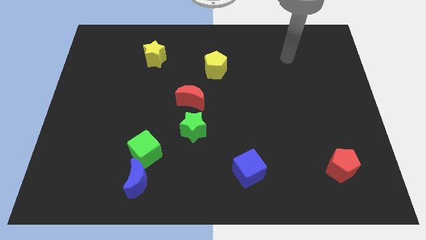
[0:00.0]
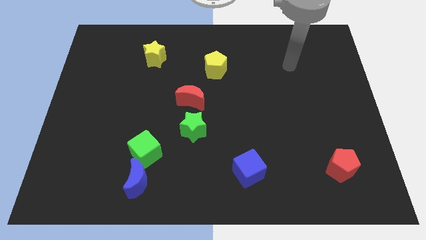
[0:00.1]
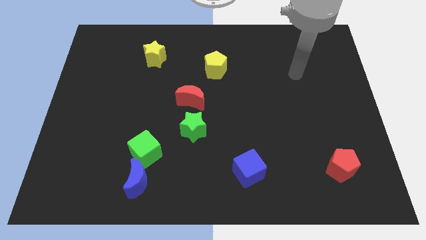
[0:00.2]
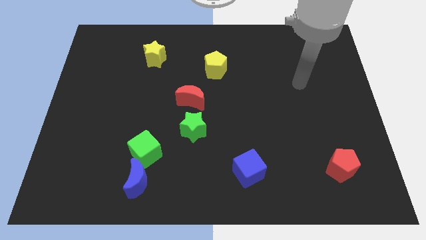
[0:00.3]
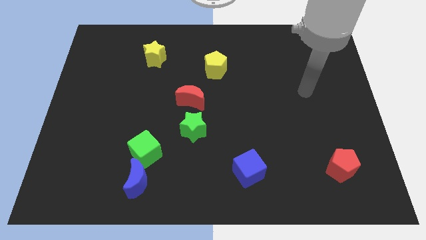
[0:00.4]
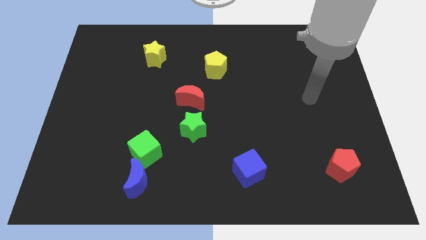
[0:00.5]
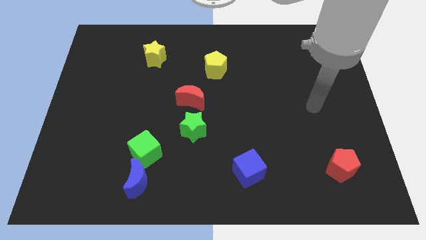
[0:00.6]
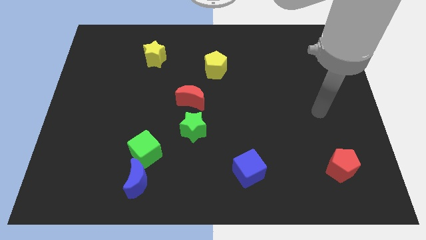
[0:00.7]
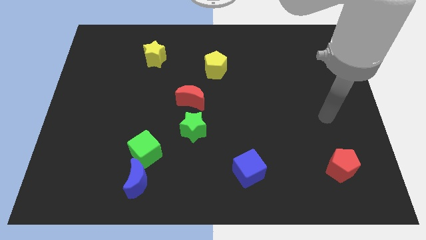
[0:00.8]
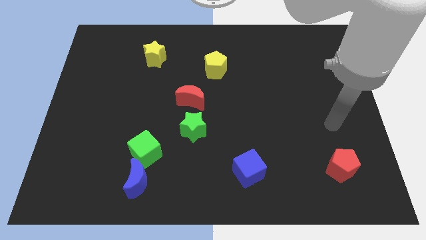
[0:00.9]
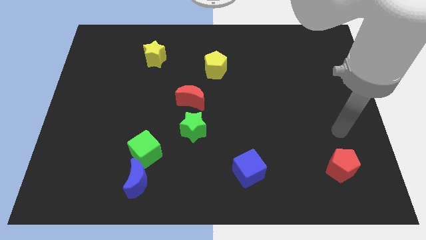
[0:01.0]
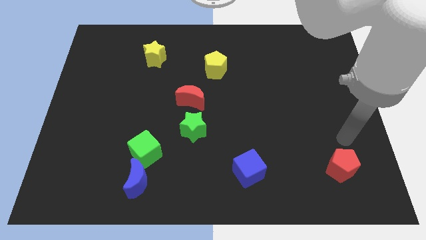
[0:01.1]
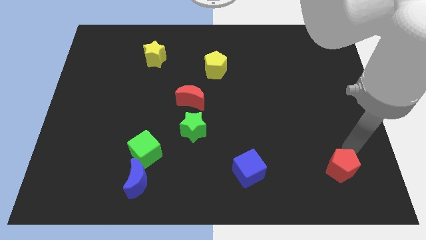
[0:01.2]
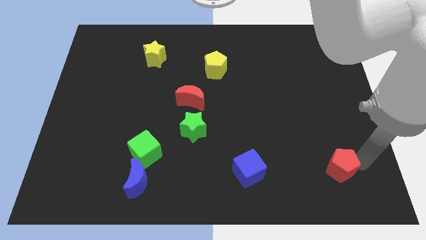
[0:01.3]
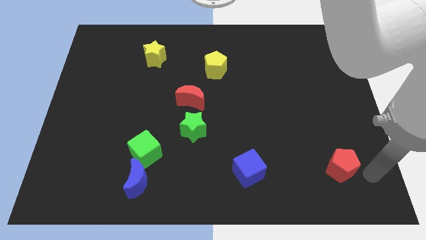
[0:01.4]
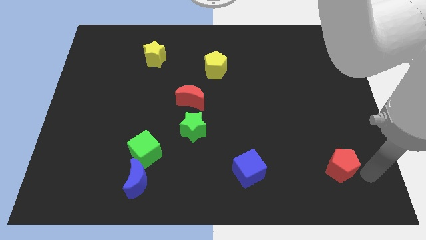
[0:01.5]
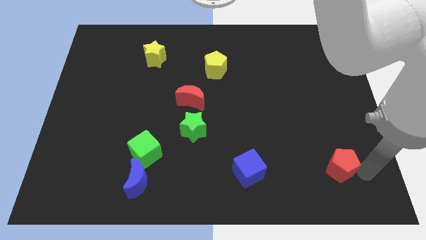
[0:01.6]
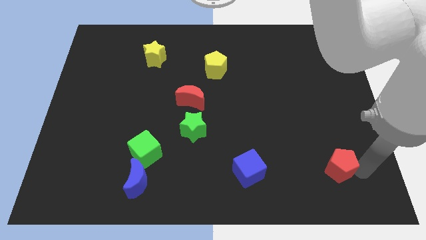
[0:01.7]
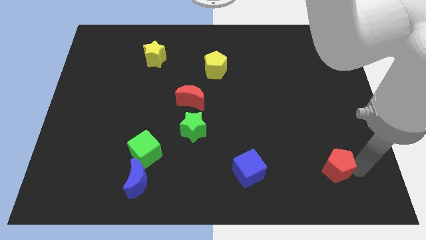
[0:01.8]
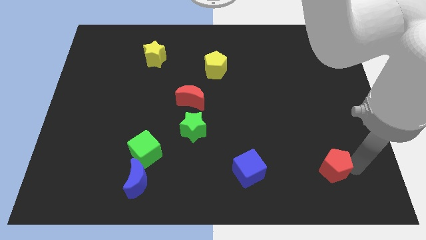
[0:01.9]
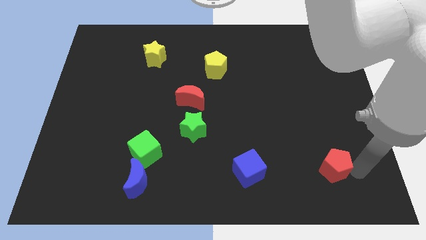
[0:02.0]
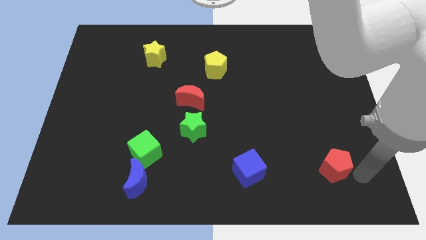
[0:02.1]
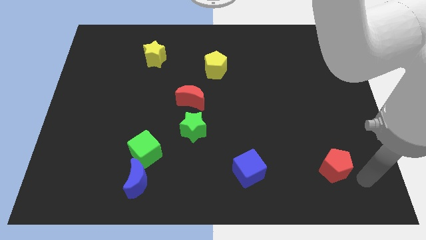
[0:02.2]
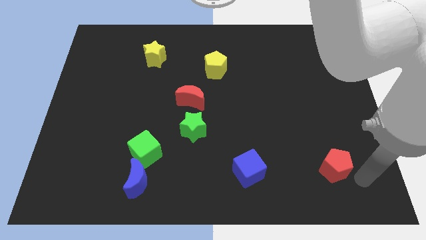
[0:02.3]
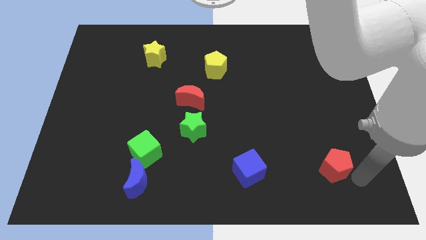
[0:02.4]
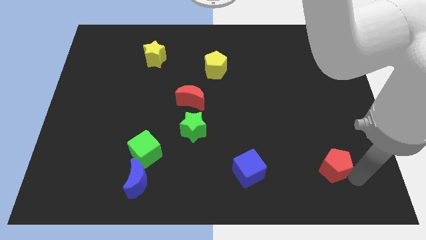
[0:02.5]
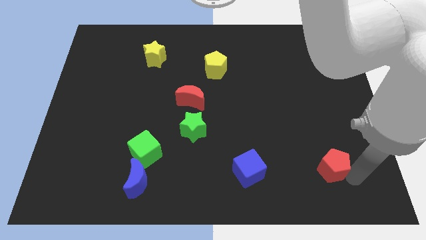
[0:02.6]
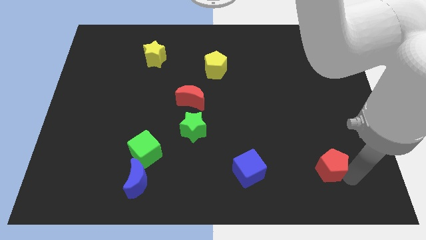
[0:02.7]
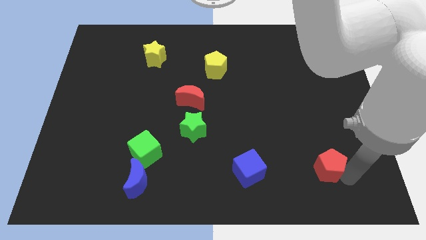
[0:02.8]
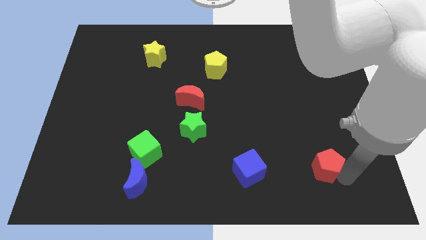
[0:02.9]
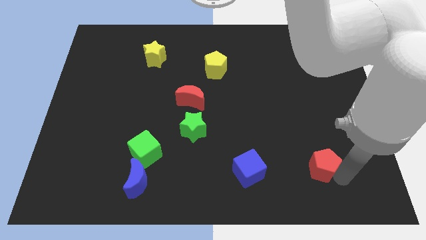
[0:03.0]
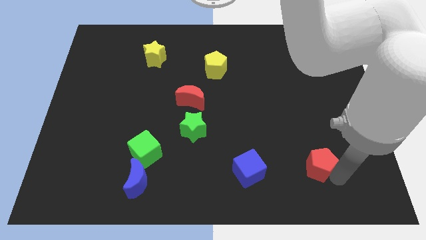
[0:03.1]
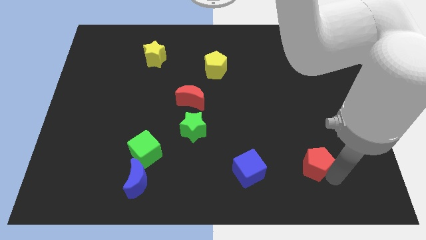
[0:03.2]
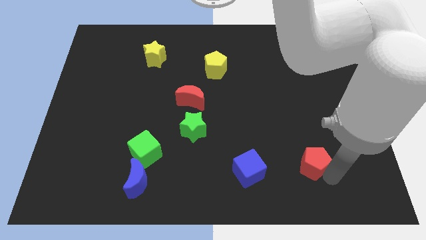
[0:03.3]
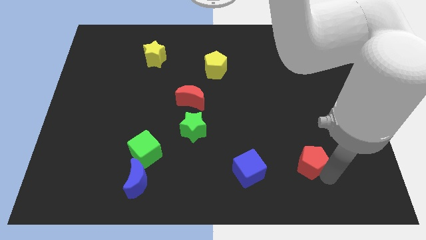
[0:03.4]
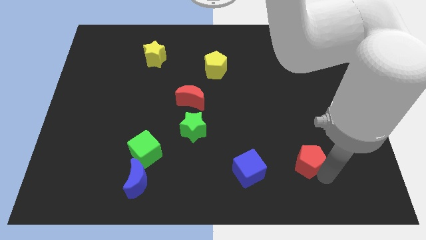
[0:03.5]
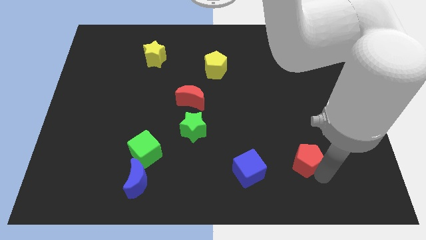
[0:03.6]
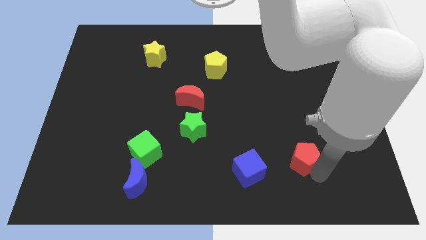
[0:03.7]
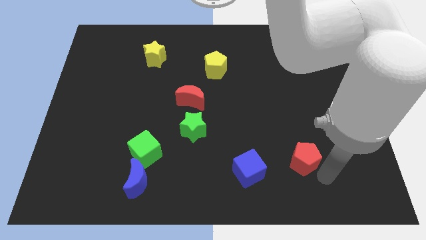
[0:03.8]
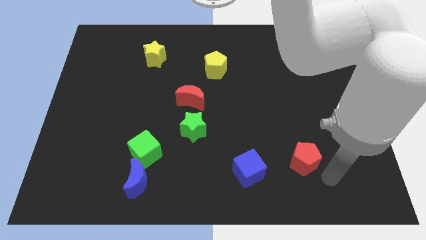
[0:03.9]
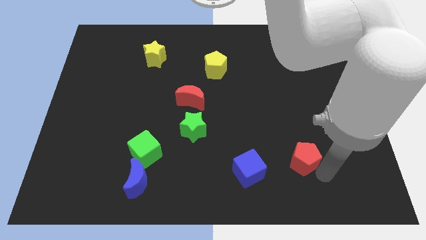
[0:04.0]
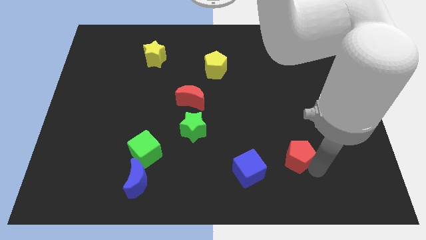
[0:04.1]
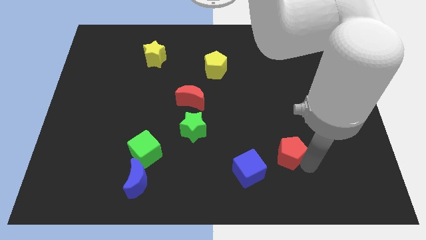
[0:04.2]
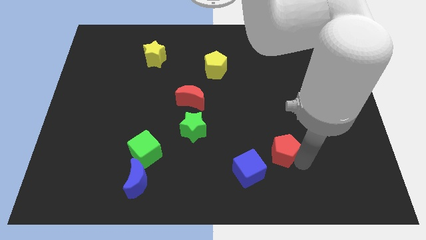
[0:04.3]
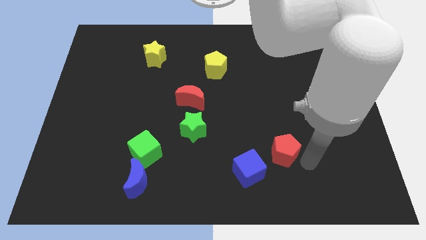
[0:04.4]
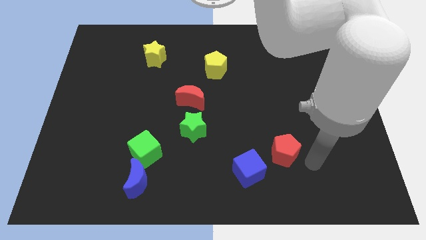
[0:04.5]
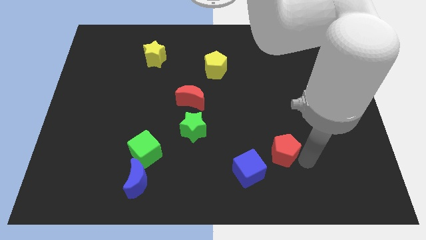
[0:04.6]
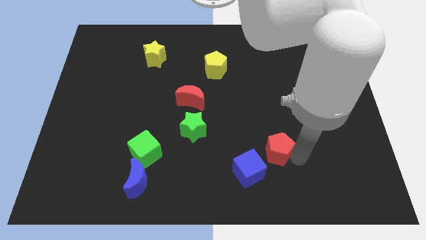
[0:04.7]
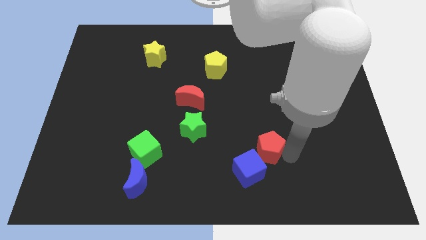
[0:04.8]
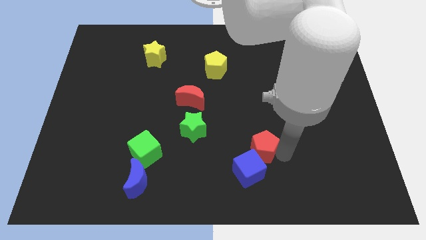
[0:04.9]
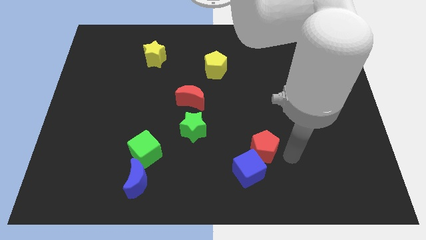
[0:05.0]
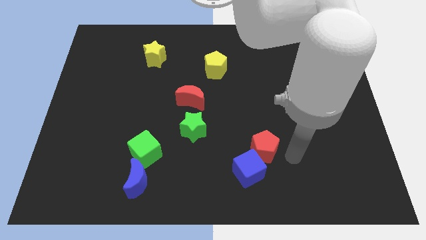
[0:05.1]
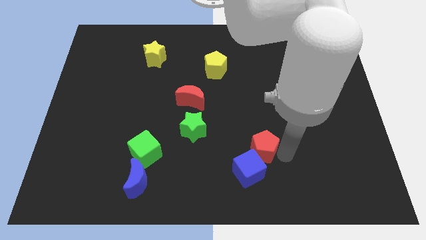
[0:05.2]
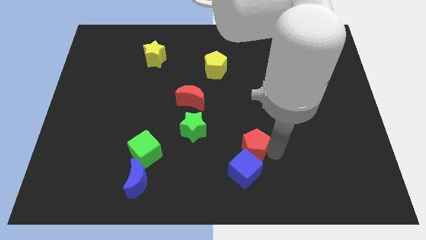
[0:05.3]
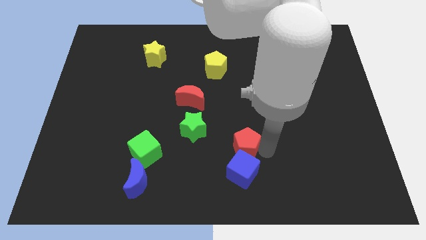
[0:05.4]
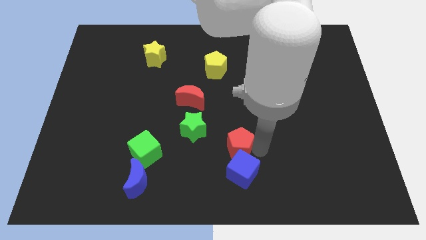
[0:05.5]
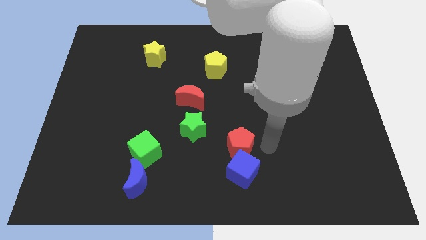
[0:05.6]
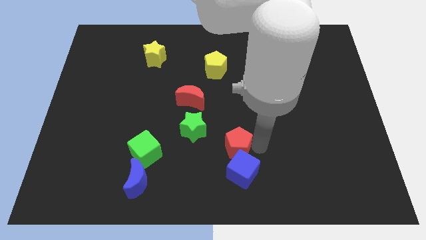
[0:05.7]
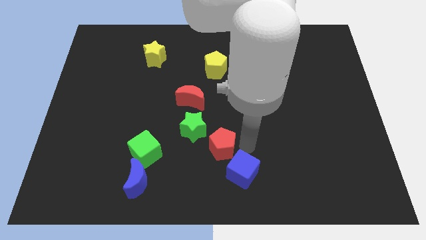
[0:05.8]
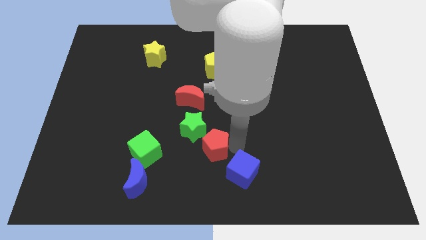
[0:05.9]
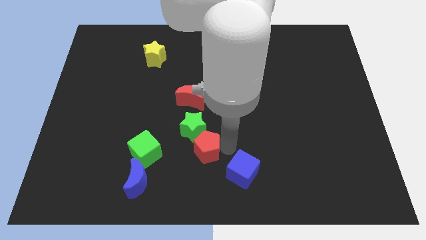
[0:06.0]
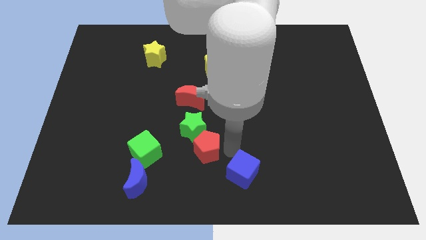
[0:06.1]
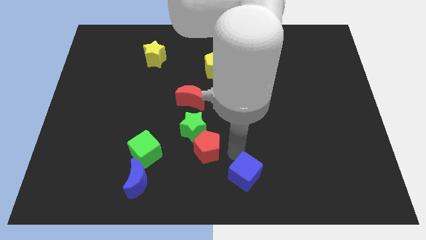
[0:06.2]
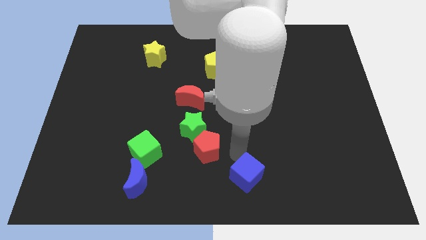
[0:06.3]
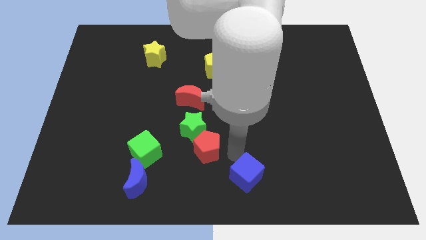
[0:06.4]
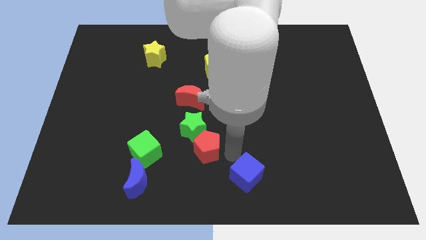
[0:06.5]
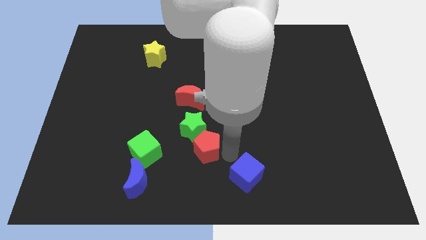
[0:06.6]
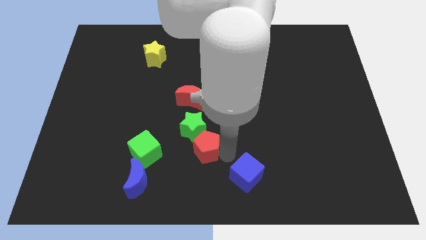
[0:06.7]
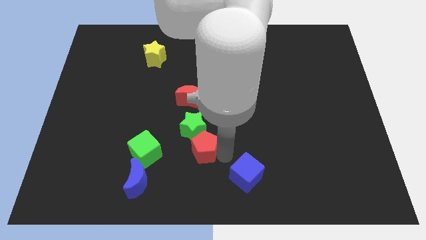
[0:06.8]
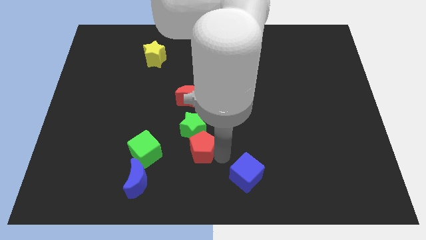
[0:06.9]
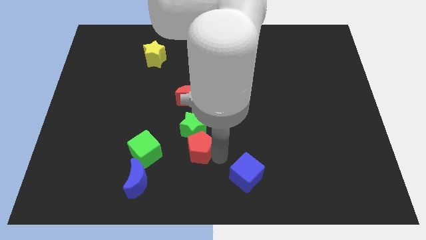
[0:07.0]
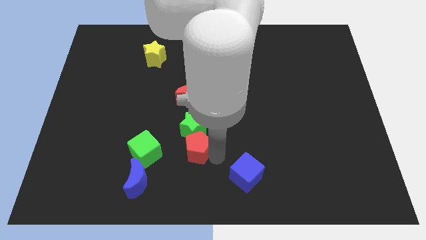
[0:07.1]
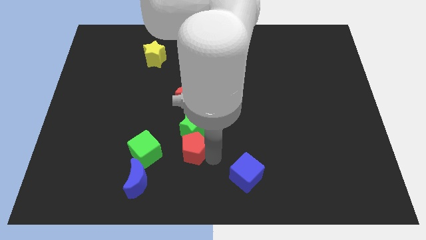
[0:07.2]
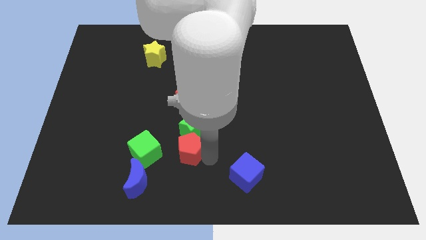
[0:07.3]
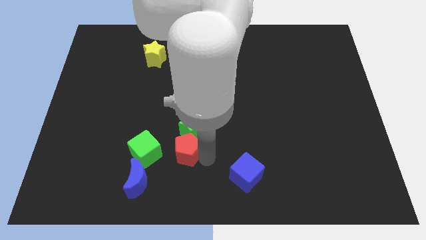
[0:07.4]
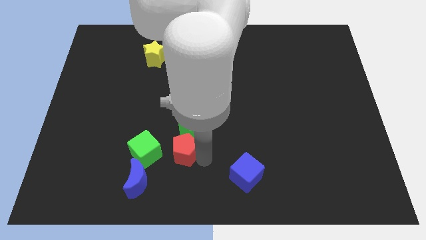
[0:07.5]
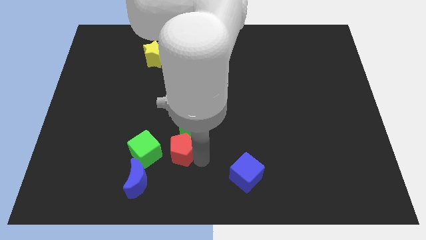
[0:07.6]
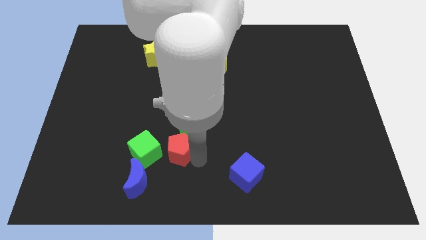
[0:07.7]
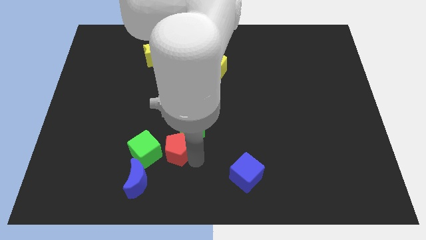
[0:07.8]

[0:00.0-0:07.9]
move the red pentagon diagonally up and to the right of the green cube
